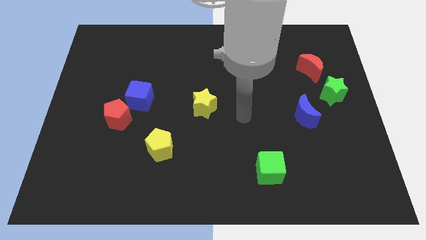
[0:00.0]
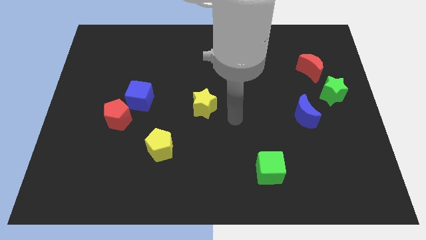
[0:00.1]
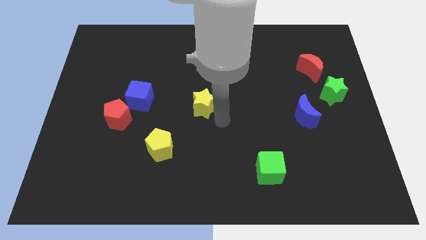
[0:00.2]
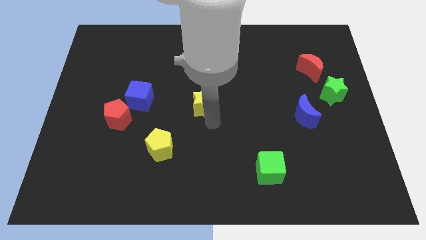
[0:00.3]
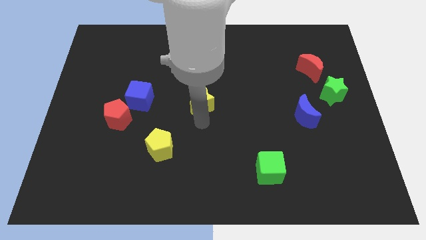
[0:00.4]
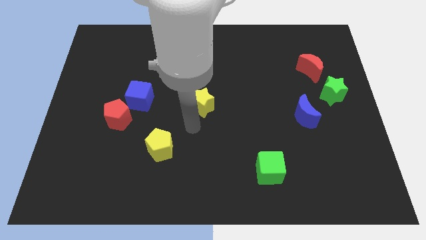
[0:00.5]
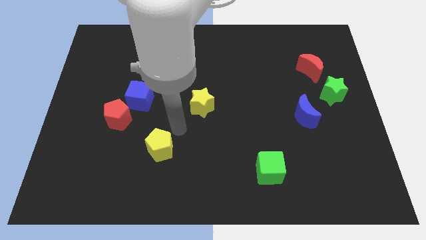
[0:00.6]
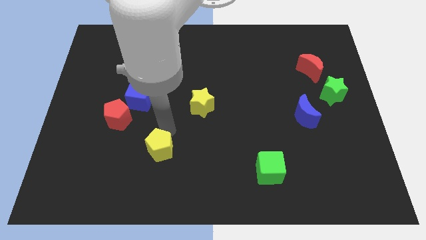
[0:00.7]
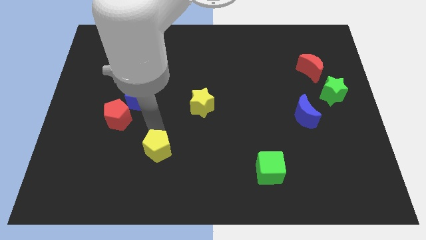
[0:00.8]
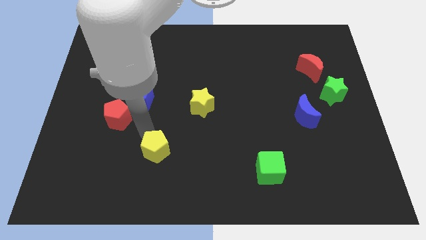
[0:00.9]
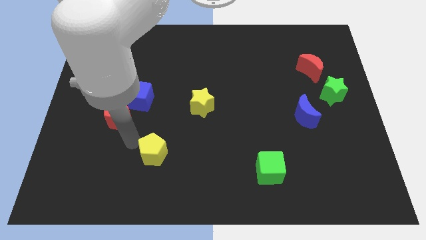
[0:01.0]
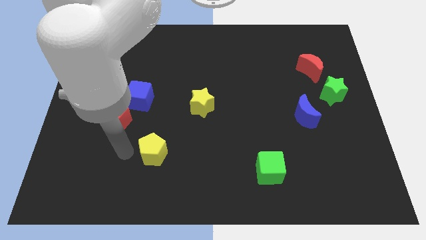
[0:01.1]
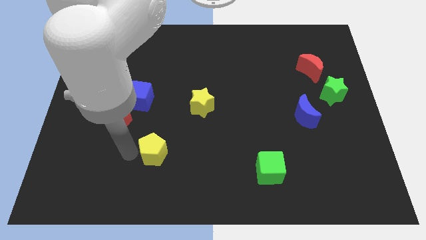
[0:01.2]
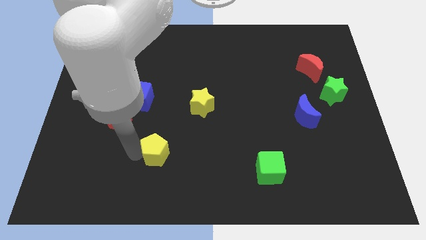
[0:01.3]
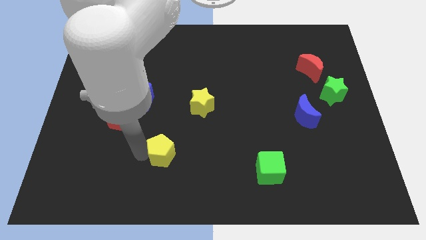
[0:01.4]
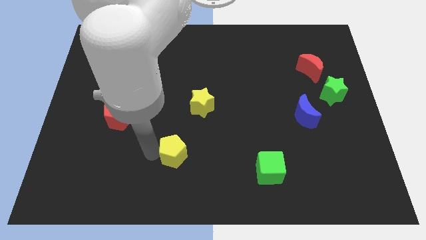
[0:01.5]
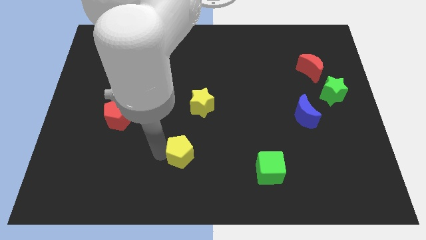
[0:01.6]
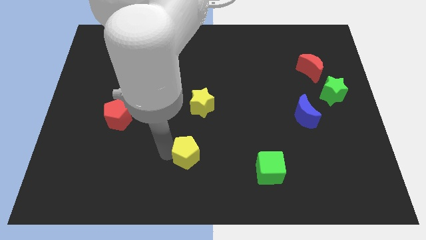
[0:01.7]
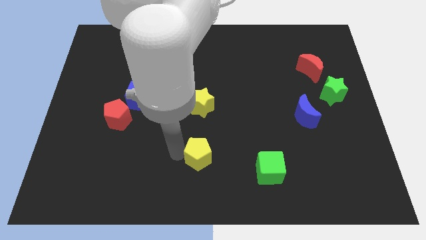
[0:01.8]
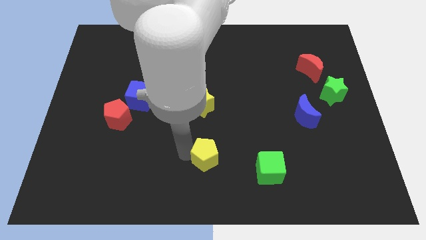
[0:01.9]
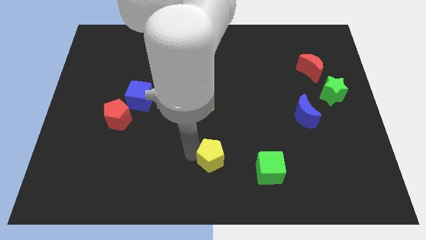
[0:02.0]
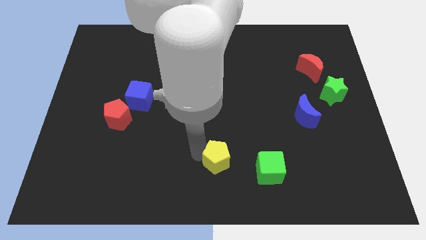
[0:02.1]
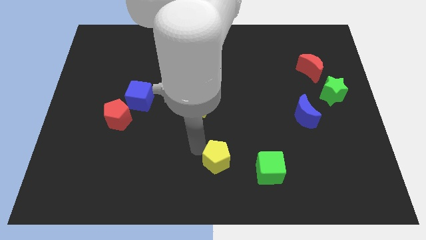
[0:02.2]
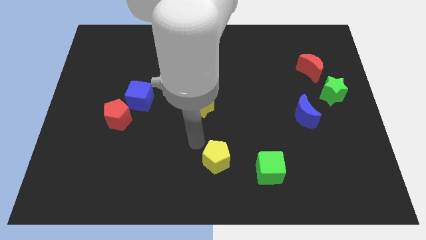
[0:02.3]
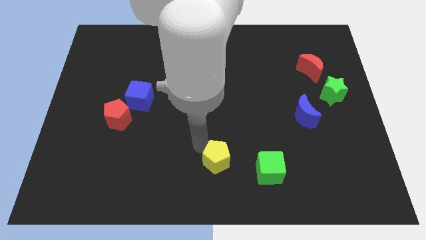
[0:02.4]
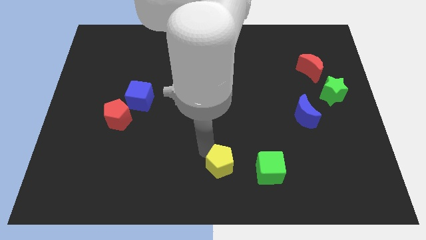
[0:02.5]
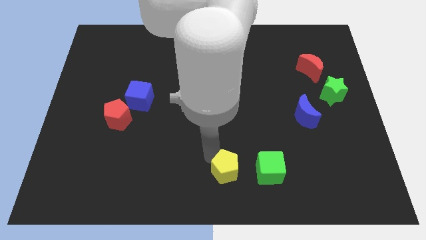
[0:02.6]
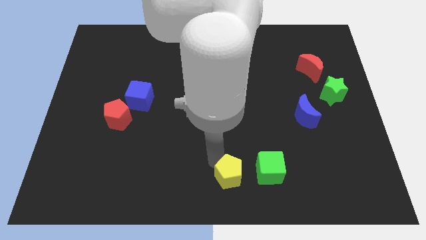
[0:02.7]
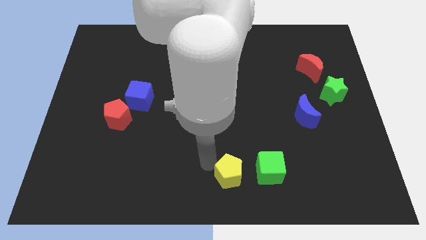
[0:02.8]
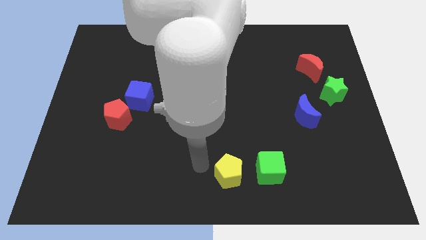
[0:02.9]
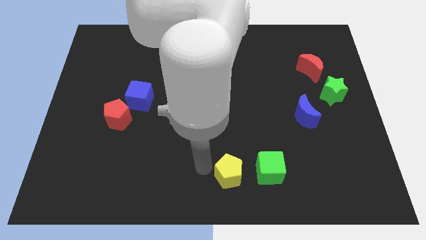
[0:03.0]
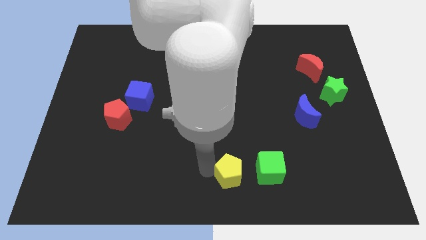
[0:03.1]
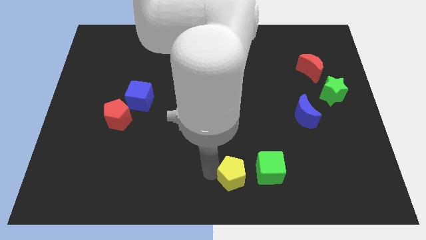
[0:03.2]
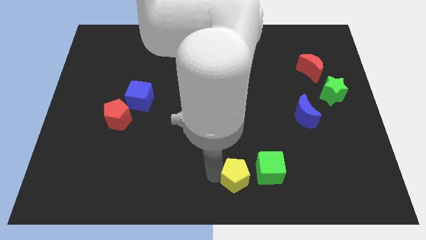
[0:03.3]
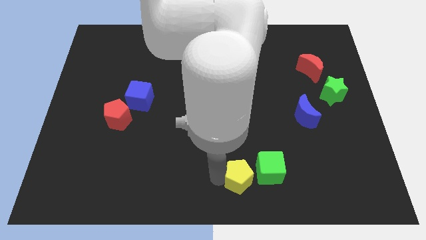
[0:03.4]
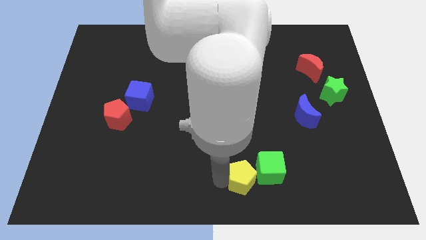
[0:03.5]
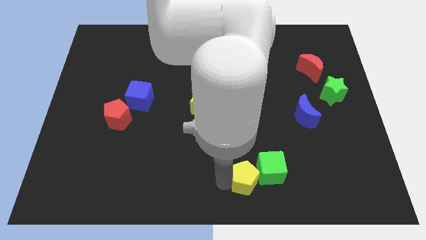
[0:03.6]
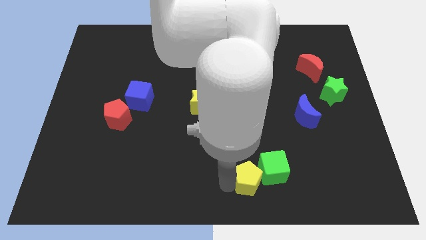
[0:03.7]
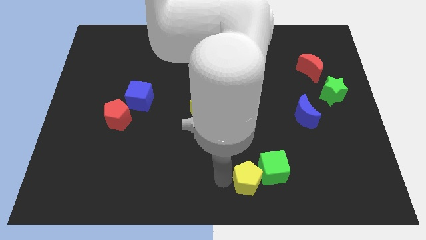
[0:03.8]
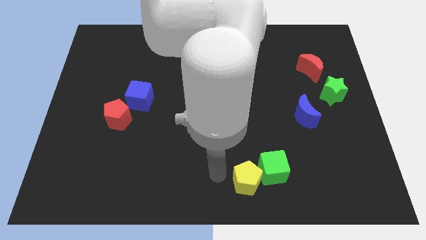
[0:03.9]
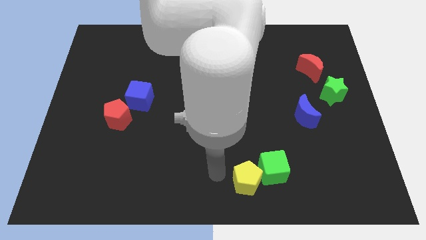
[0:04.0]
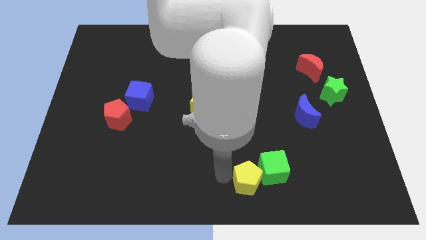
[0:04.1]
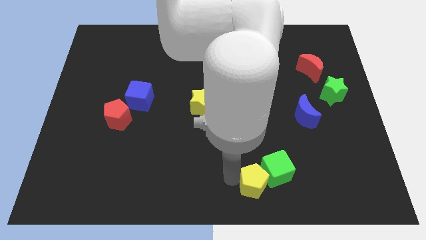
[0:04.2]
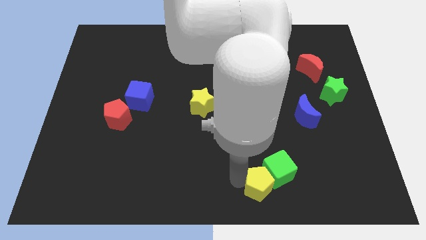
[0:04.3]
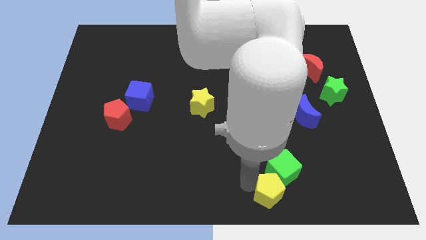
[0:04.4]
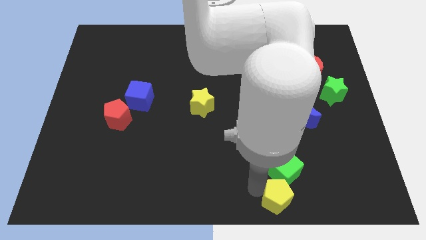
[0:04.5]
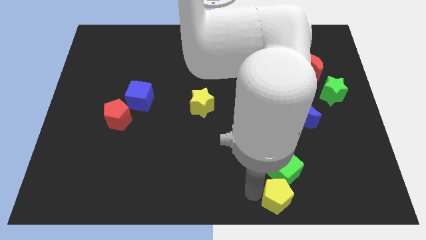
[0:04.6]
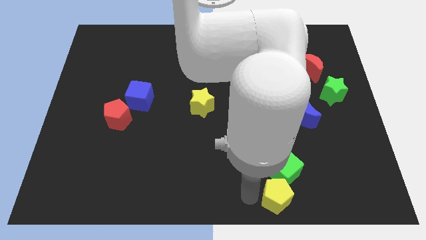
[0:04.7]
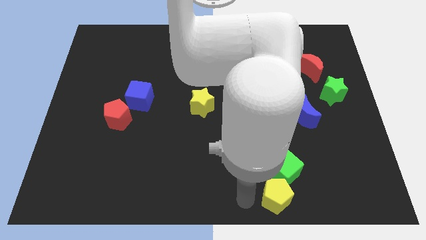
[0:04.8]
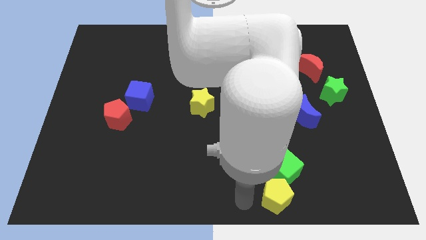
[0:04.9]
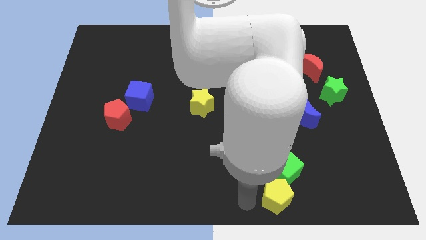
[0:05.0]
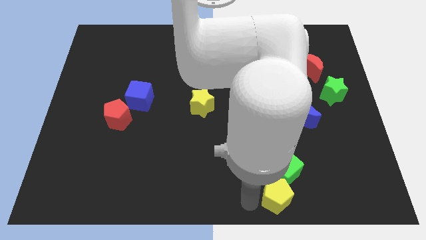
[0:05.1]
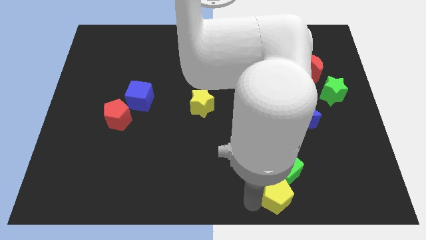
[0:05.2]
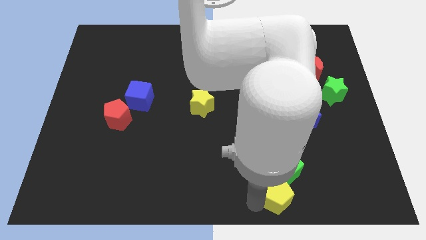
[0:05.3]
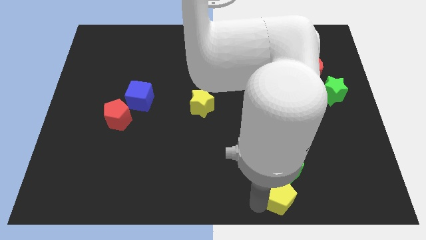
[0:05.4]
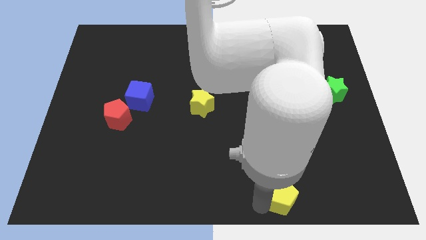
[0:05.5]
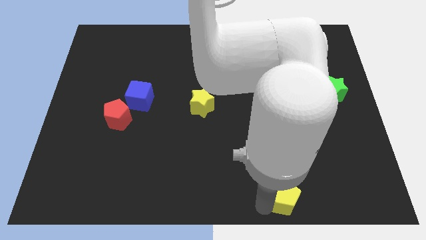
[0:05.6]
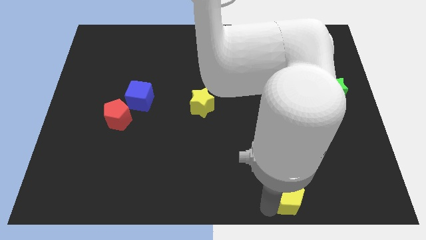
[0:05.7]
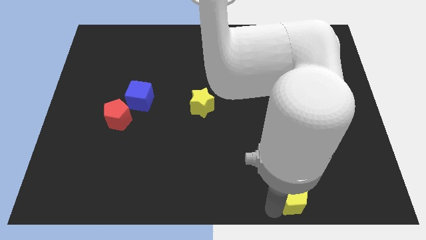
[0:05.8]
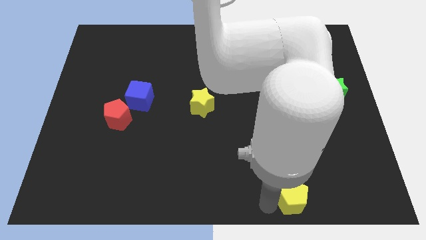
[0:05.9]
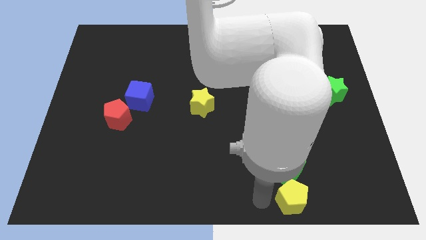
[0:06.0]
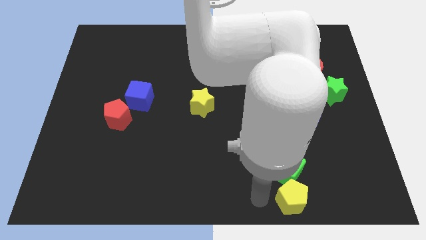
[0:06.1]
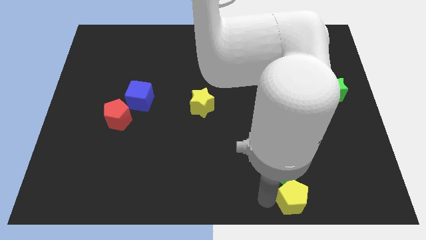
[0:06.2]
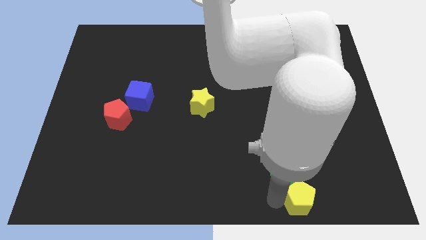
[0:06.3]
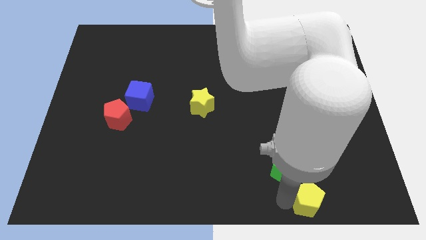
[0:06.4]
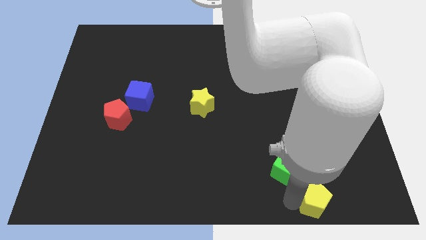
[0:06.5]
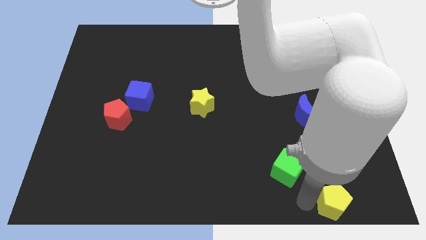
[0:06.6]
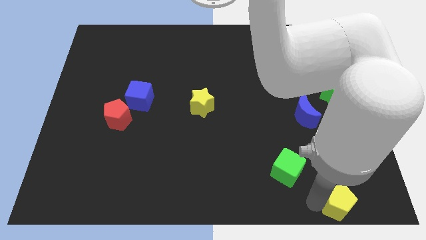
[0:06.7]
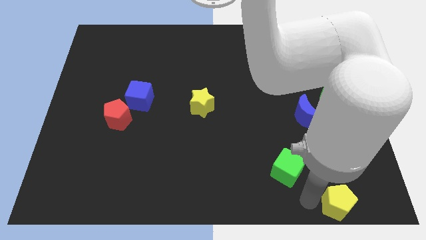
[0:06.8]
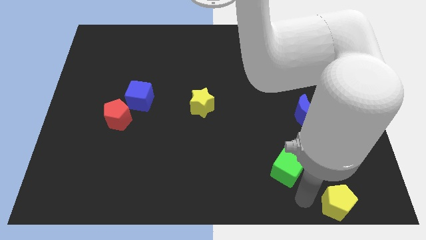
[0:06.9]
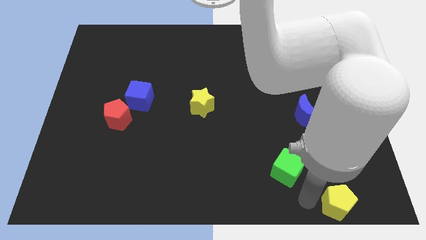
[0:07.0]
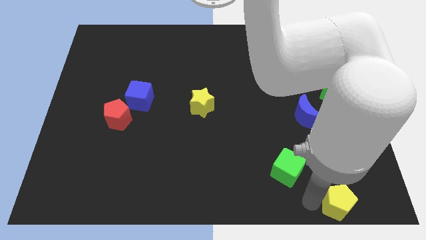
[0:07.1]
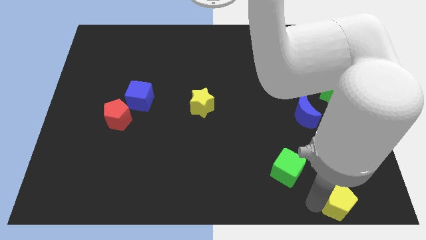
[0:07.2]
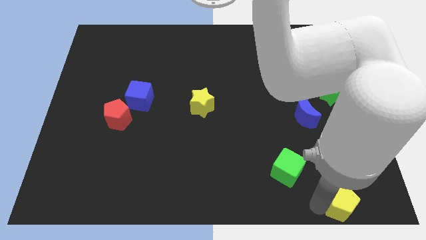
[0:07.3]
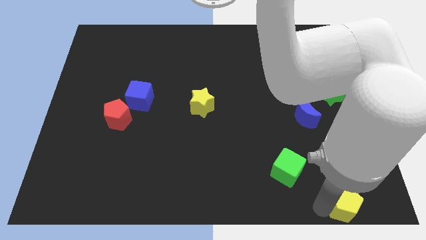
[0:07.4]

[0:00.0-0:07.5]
slide the yellow pentagon to the bottom right corner
